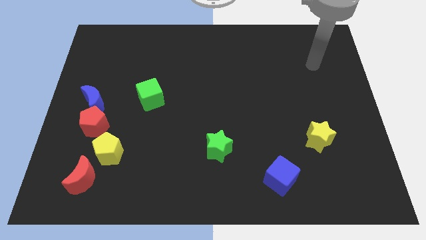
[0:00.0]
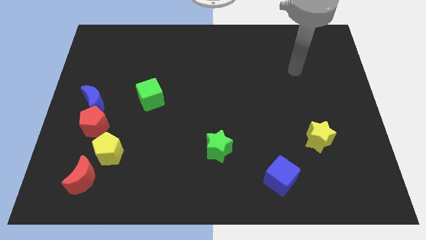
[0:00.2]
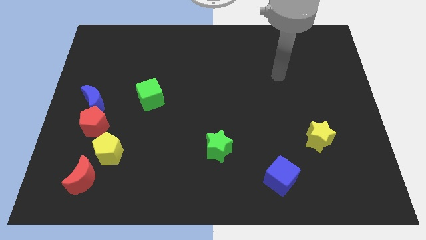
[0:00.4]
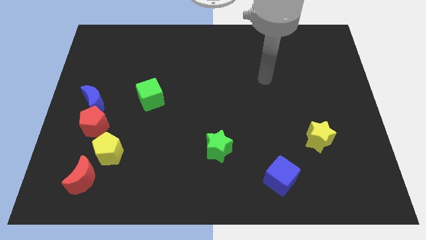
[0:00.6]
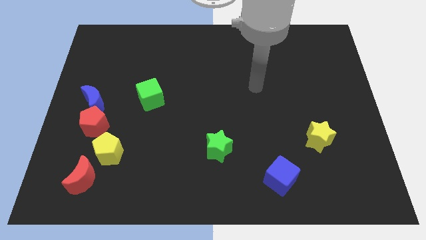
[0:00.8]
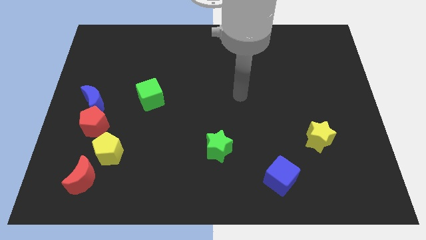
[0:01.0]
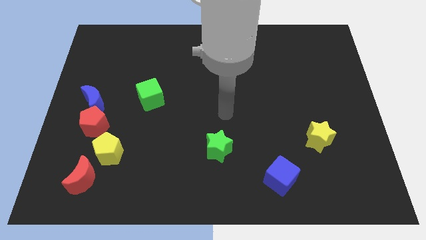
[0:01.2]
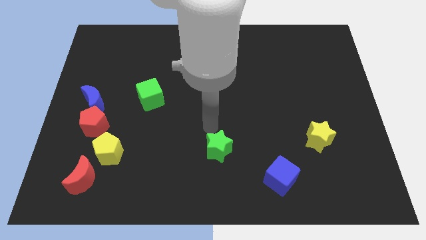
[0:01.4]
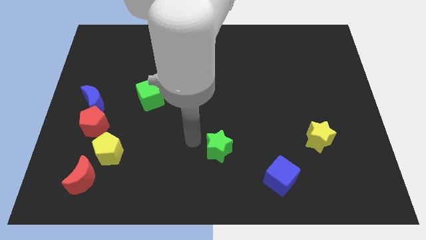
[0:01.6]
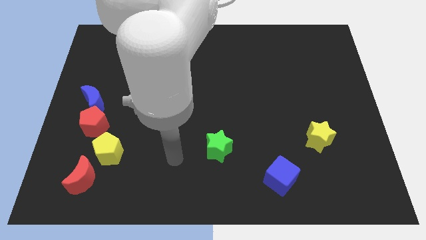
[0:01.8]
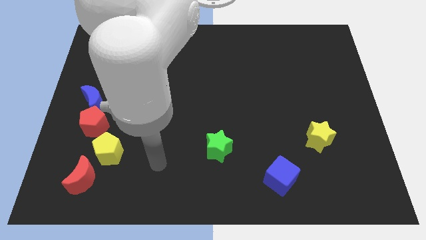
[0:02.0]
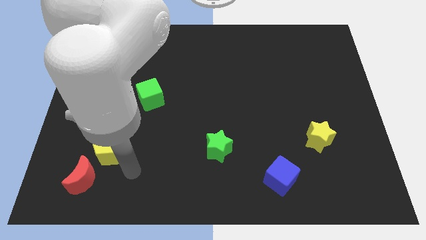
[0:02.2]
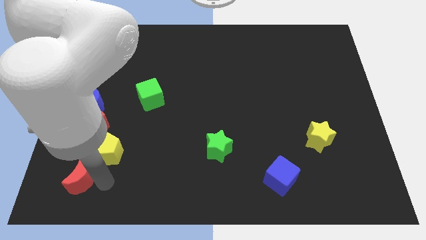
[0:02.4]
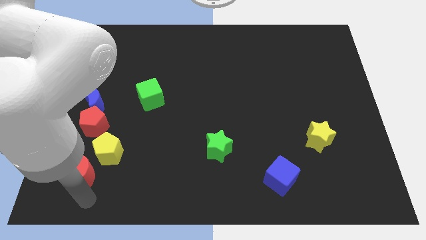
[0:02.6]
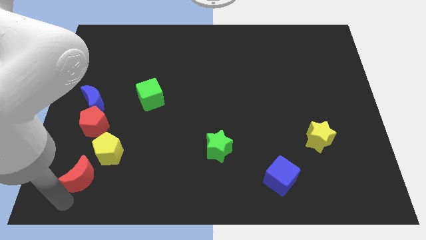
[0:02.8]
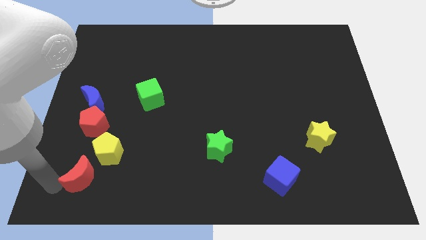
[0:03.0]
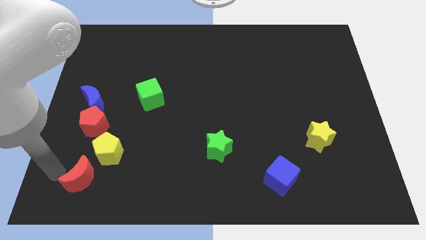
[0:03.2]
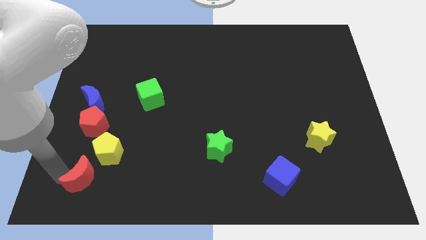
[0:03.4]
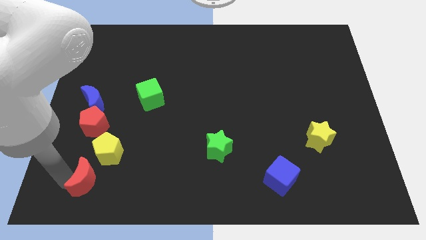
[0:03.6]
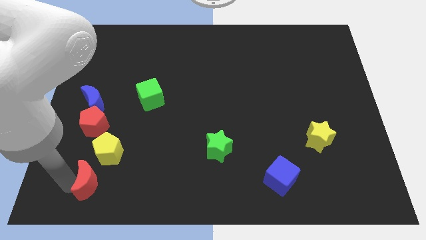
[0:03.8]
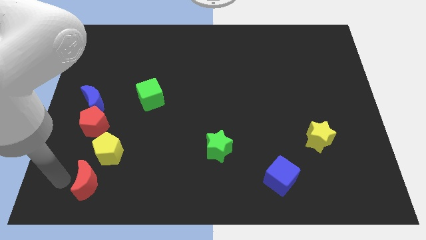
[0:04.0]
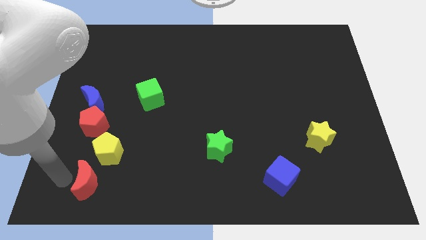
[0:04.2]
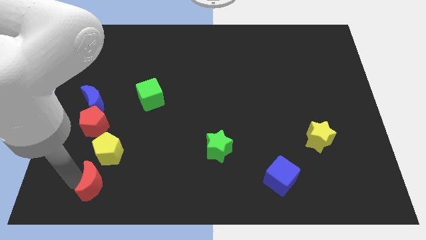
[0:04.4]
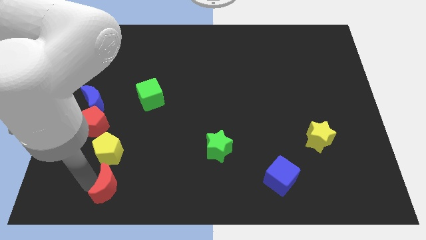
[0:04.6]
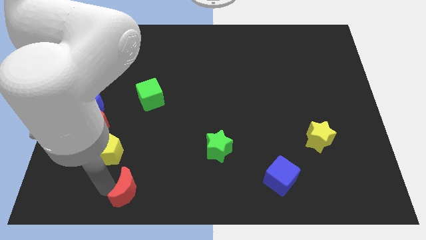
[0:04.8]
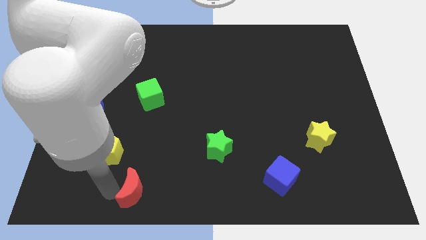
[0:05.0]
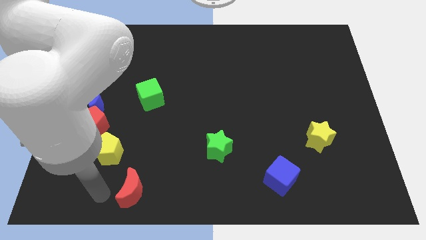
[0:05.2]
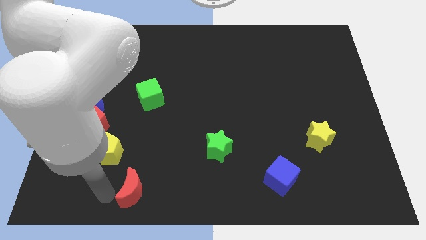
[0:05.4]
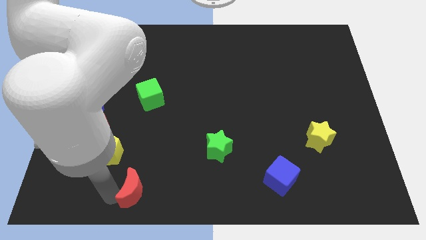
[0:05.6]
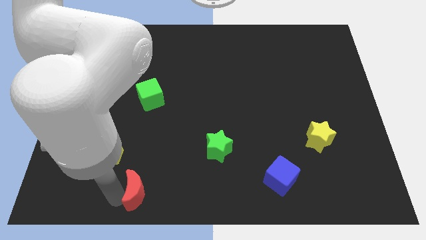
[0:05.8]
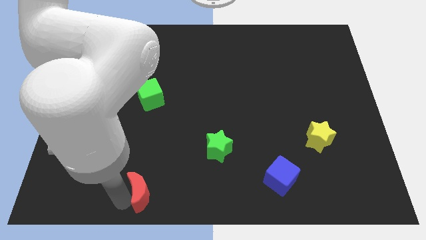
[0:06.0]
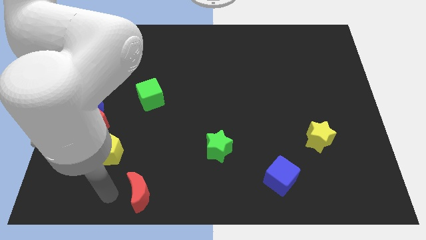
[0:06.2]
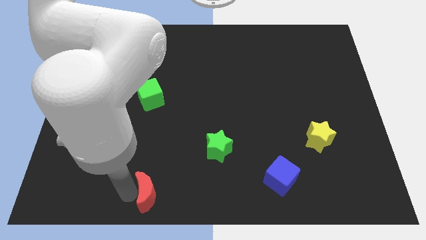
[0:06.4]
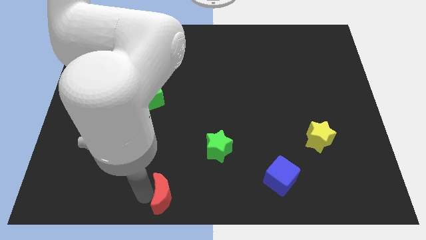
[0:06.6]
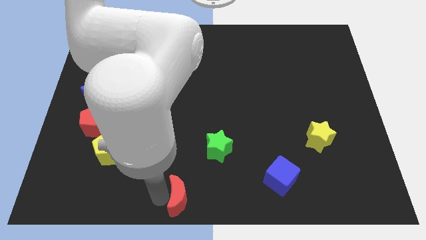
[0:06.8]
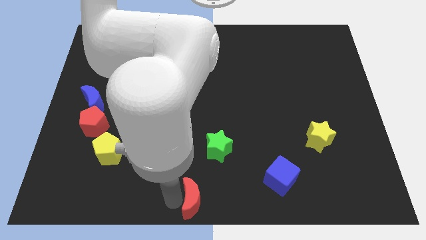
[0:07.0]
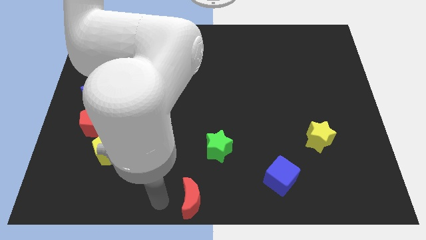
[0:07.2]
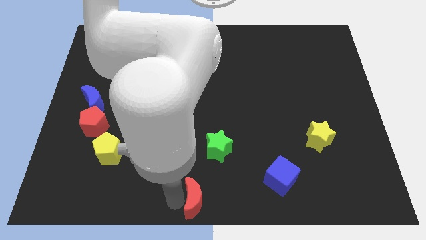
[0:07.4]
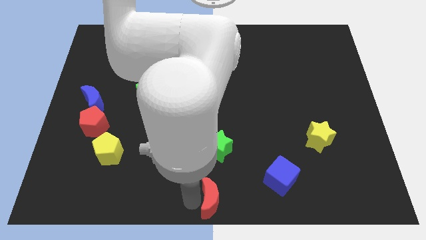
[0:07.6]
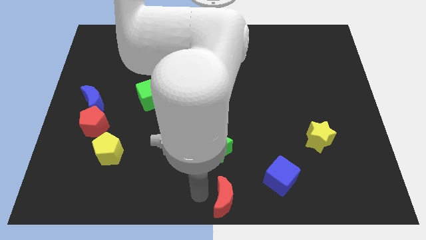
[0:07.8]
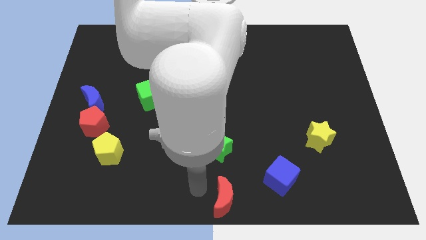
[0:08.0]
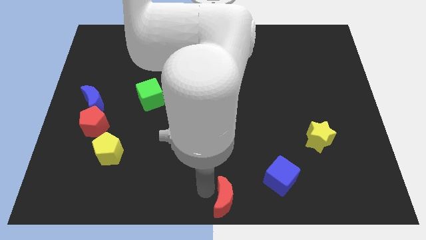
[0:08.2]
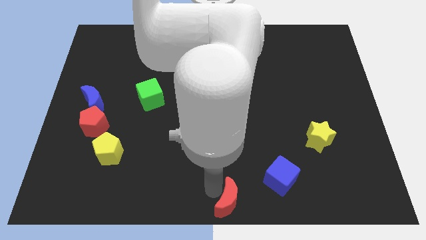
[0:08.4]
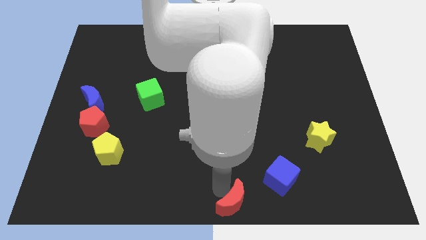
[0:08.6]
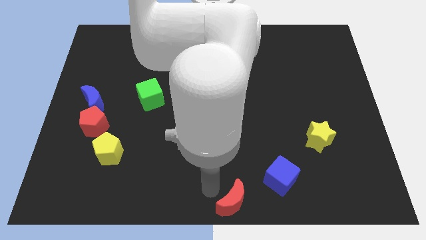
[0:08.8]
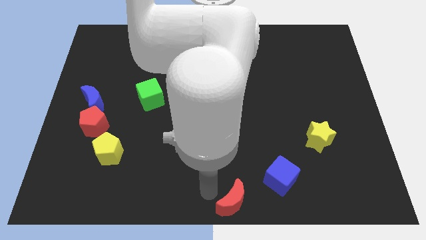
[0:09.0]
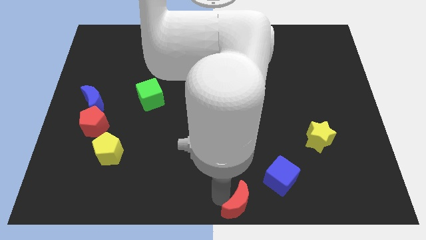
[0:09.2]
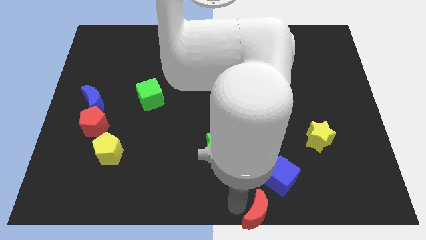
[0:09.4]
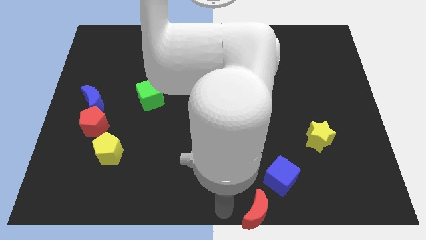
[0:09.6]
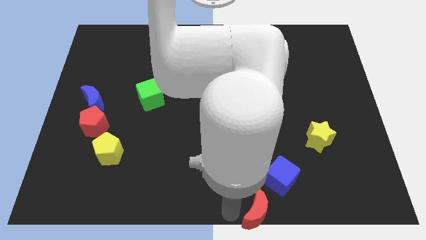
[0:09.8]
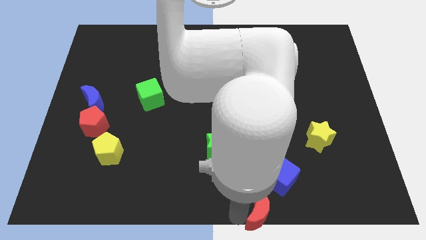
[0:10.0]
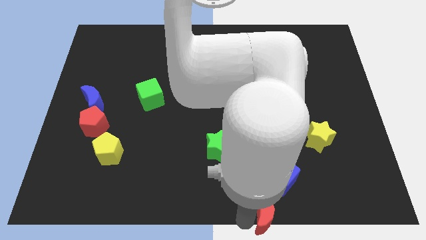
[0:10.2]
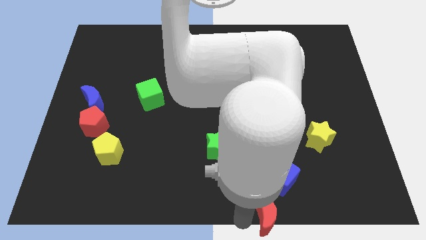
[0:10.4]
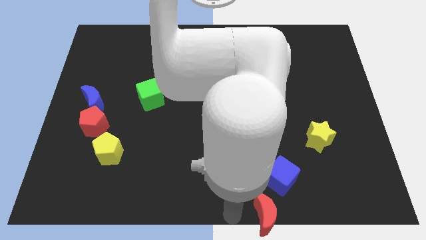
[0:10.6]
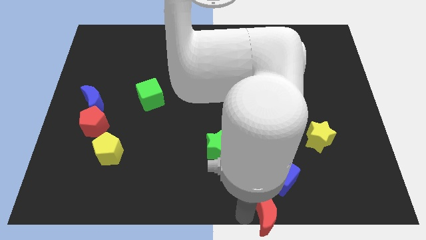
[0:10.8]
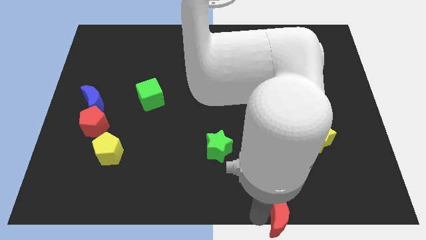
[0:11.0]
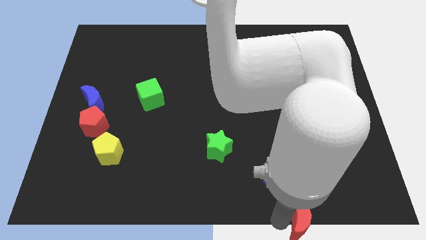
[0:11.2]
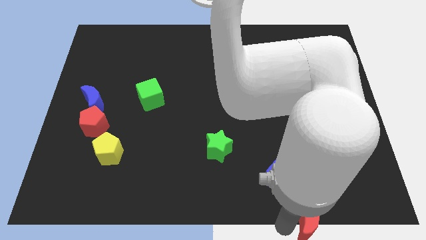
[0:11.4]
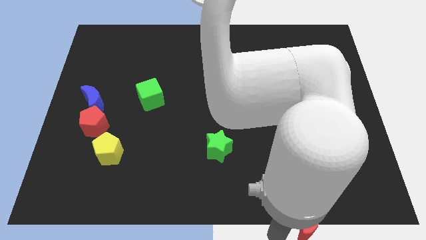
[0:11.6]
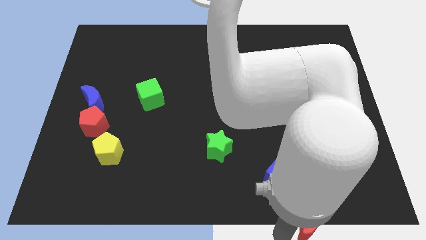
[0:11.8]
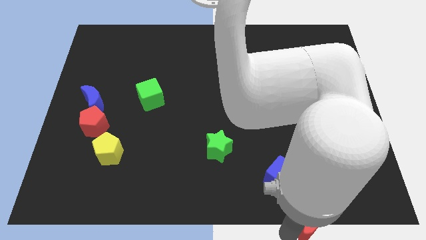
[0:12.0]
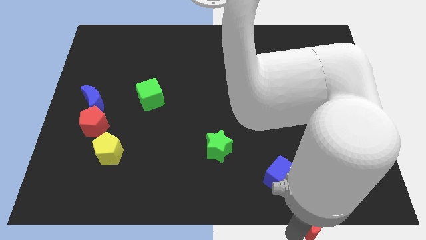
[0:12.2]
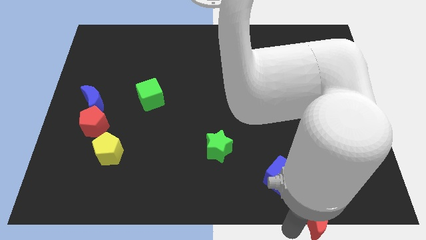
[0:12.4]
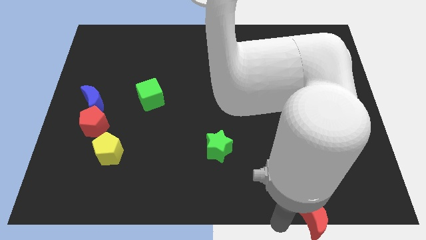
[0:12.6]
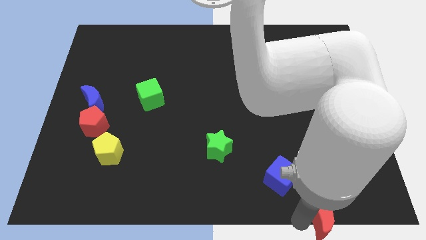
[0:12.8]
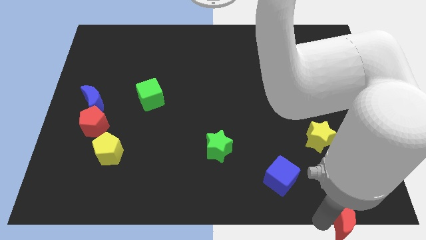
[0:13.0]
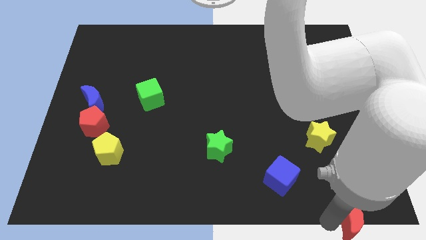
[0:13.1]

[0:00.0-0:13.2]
put the red moon to the bottom right
